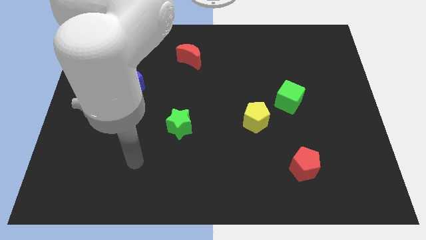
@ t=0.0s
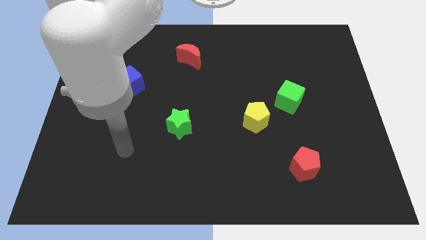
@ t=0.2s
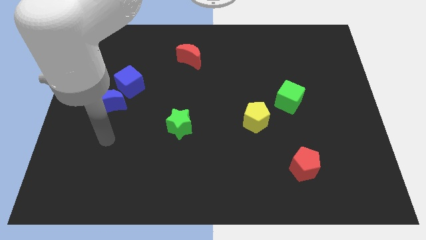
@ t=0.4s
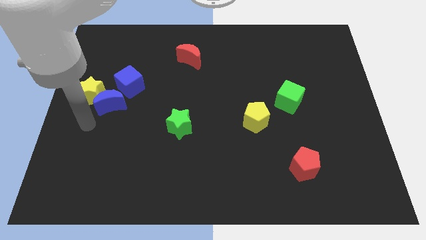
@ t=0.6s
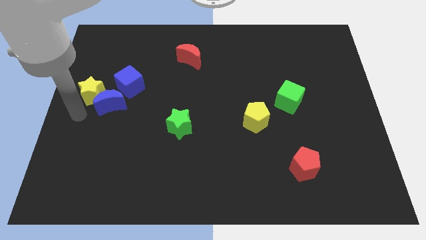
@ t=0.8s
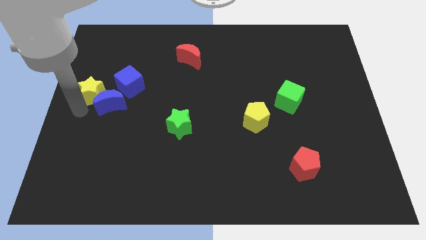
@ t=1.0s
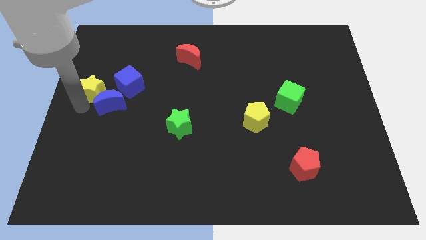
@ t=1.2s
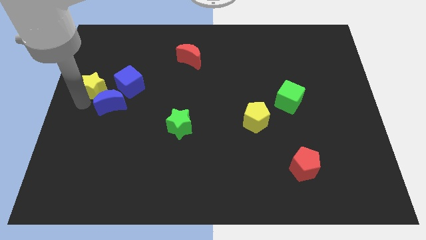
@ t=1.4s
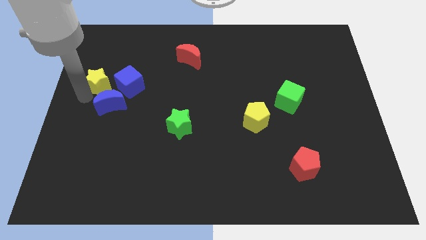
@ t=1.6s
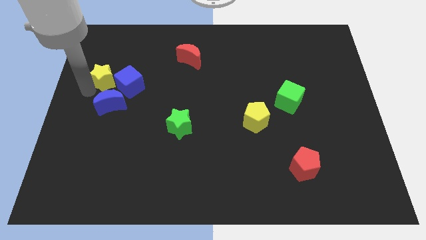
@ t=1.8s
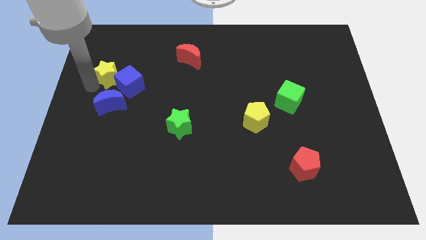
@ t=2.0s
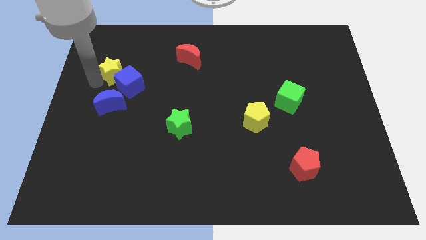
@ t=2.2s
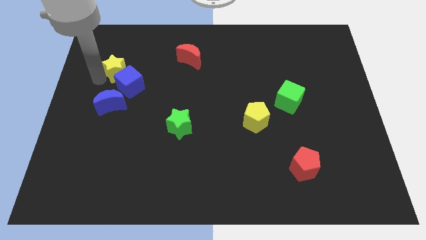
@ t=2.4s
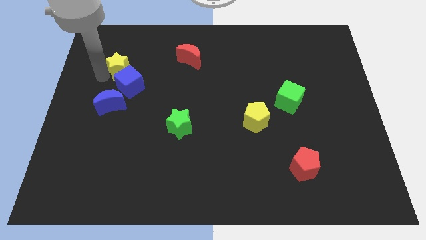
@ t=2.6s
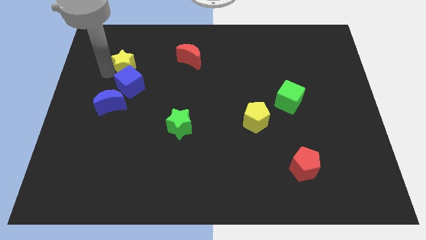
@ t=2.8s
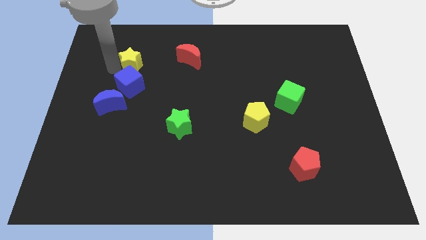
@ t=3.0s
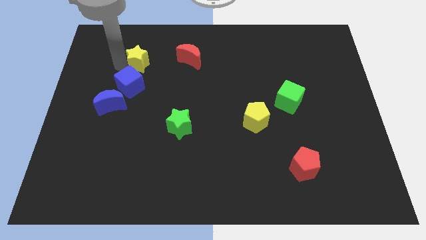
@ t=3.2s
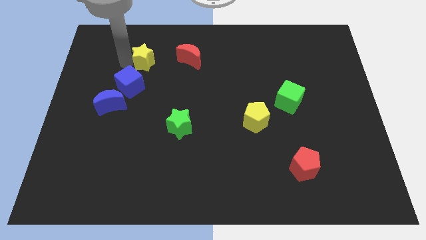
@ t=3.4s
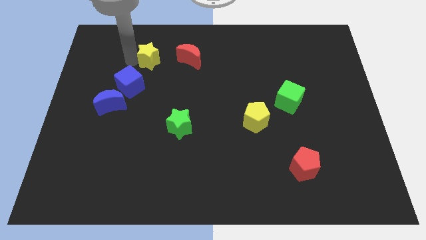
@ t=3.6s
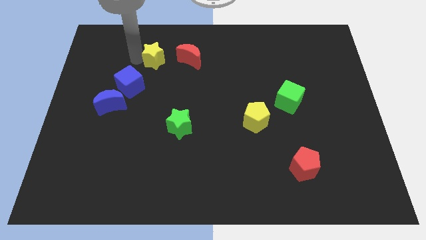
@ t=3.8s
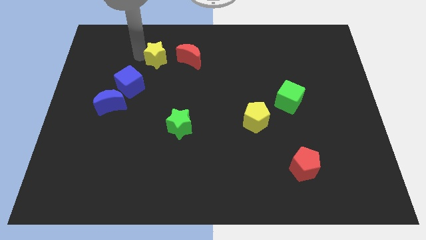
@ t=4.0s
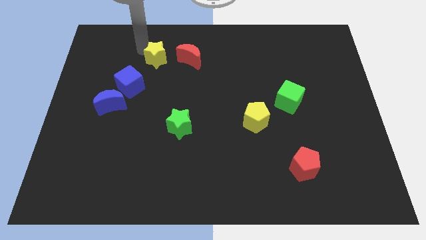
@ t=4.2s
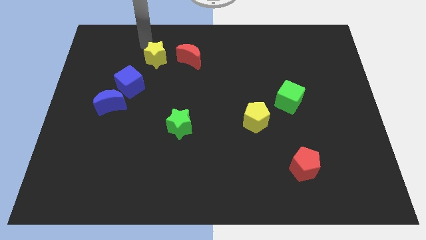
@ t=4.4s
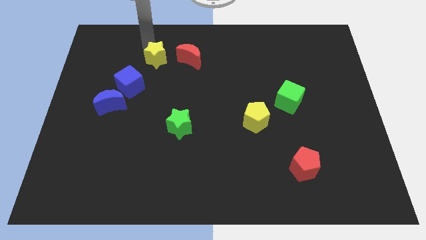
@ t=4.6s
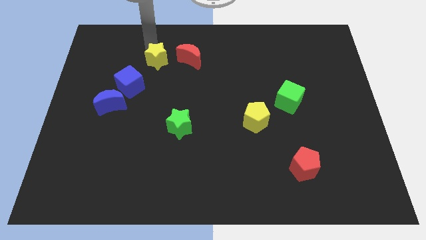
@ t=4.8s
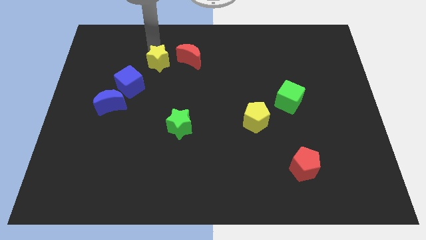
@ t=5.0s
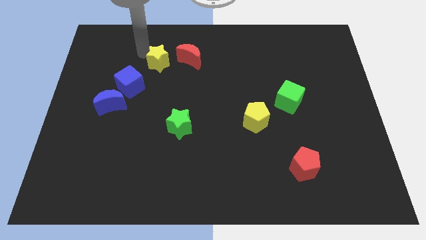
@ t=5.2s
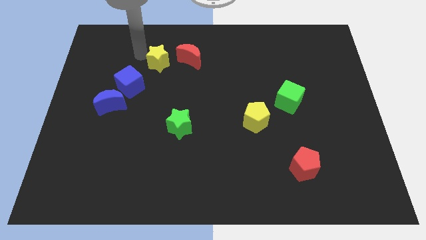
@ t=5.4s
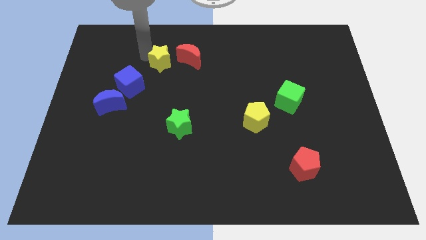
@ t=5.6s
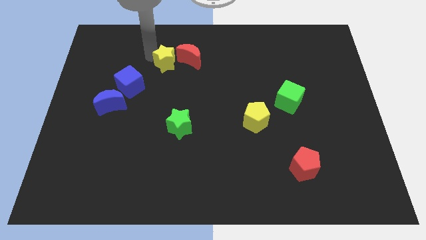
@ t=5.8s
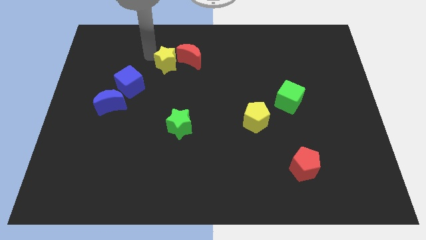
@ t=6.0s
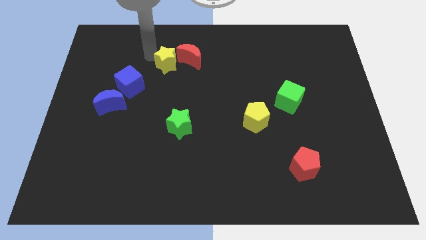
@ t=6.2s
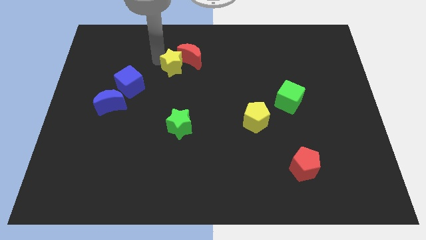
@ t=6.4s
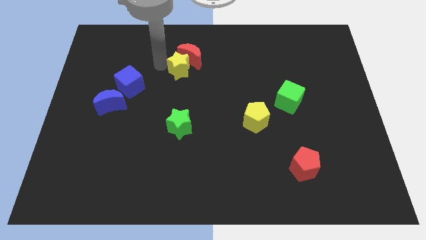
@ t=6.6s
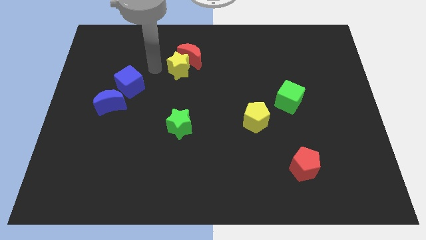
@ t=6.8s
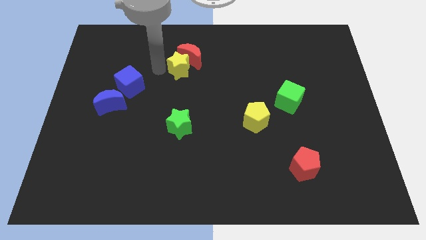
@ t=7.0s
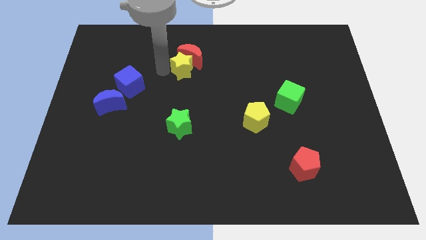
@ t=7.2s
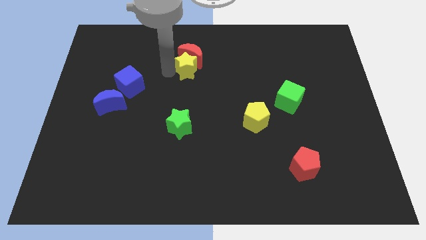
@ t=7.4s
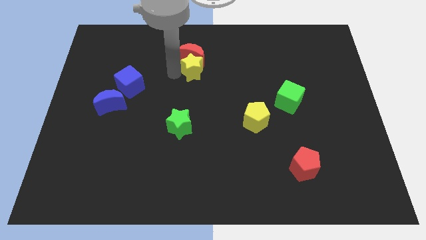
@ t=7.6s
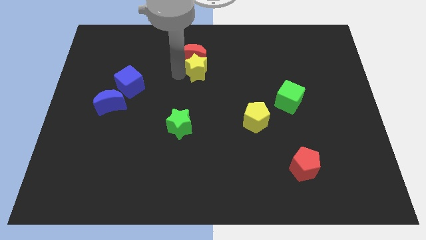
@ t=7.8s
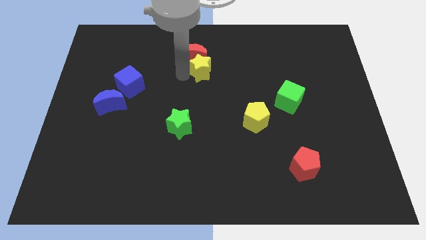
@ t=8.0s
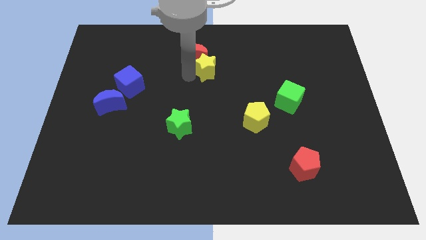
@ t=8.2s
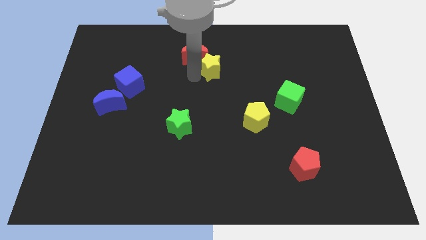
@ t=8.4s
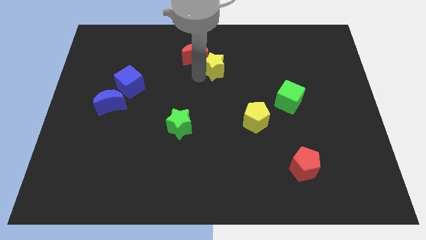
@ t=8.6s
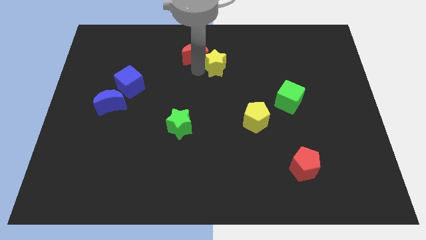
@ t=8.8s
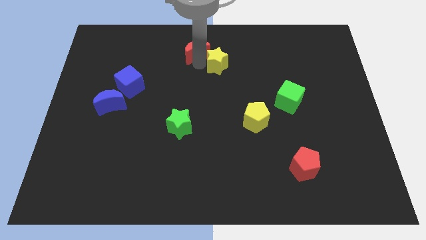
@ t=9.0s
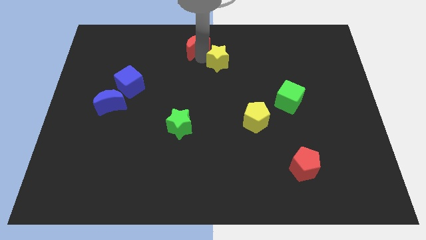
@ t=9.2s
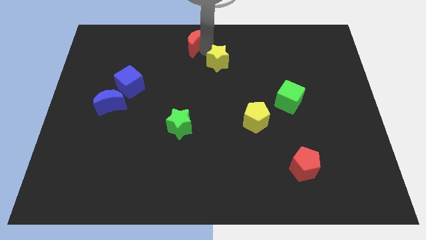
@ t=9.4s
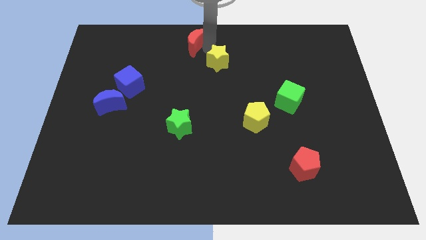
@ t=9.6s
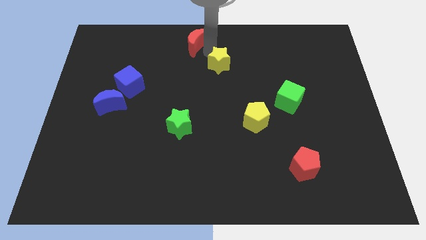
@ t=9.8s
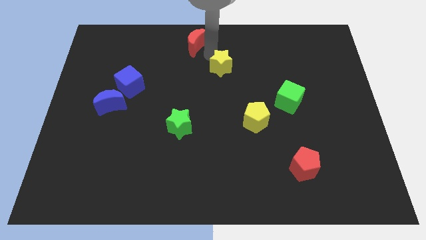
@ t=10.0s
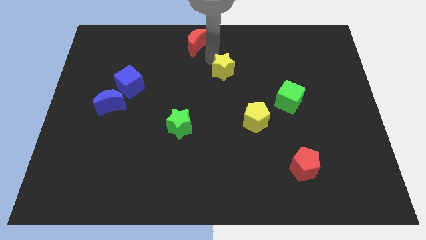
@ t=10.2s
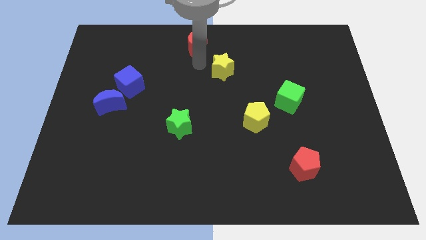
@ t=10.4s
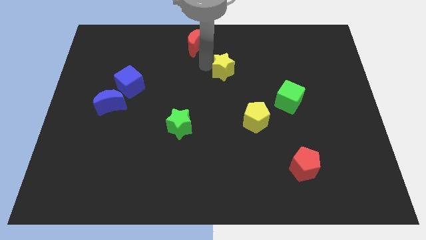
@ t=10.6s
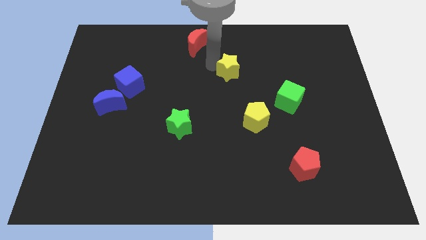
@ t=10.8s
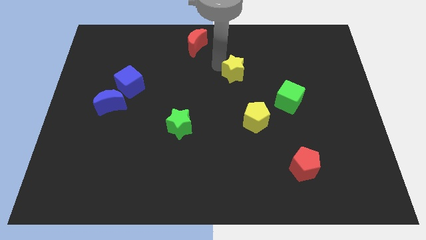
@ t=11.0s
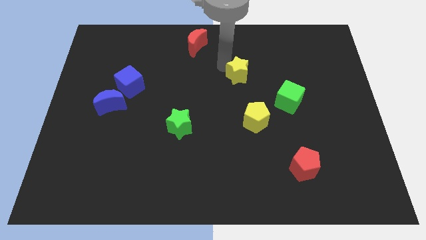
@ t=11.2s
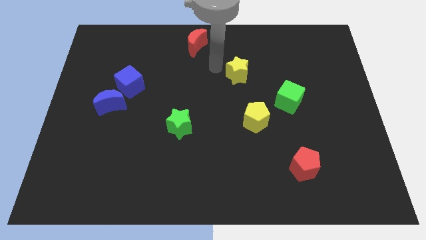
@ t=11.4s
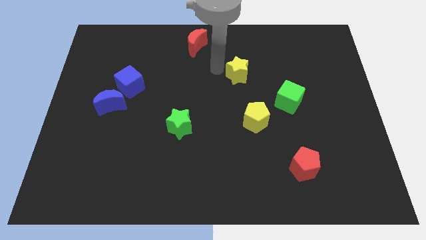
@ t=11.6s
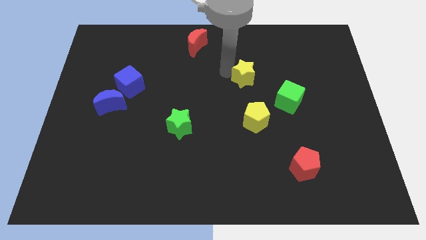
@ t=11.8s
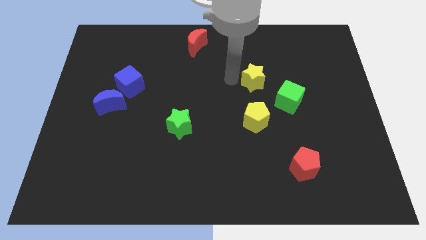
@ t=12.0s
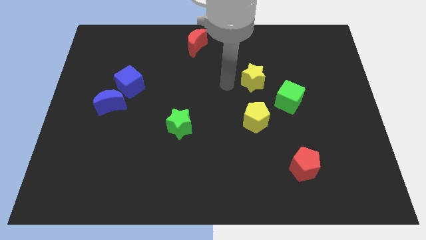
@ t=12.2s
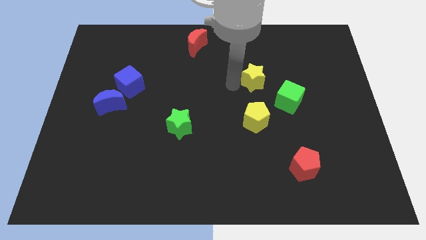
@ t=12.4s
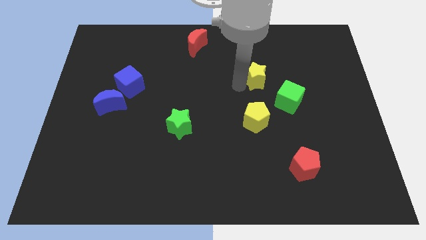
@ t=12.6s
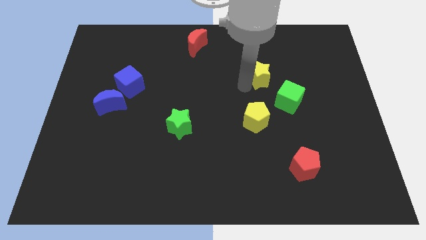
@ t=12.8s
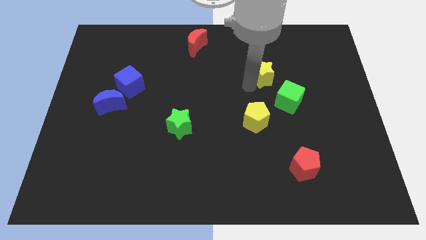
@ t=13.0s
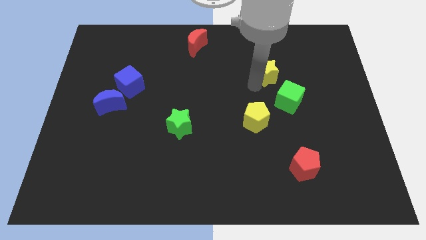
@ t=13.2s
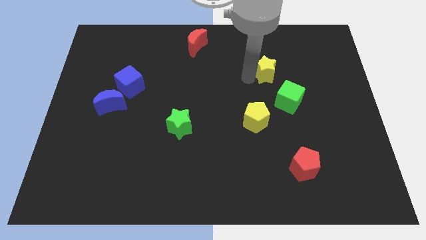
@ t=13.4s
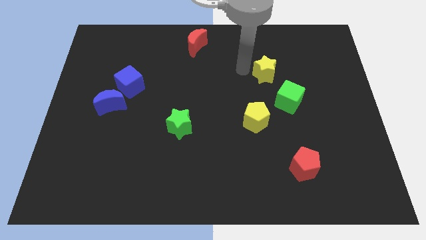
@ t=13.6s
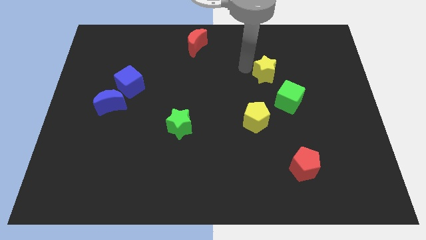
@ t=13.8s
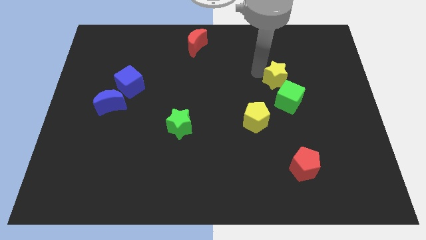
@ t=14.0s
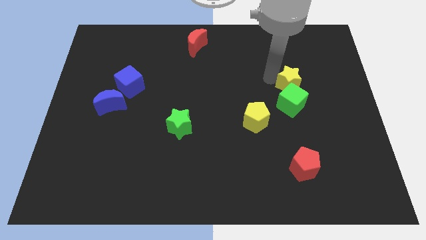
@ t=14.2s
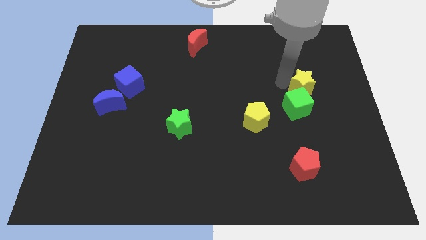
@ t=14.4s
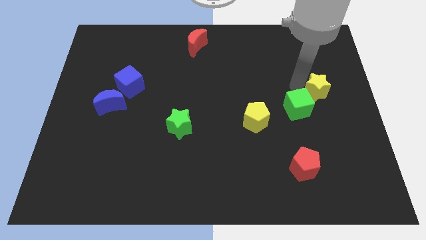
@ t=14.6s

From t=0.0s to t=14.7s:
push the yellow star to the right side of the board
